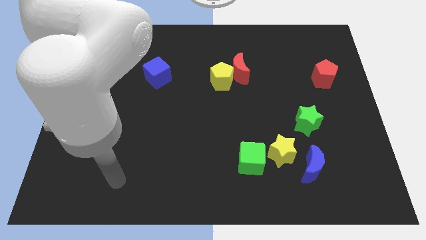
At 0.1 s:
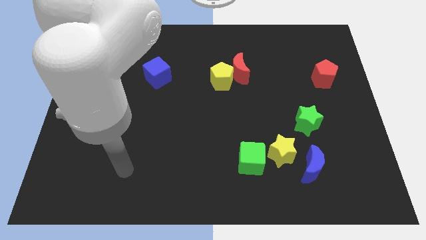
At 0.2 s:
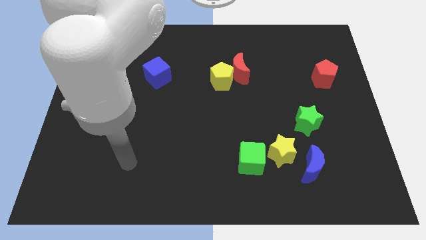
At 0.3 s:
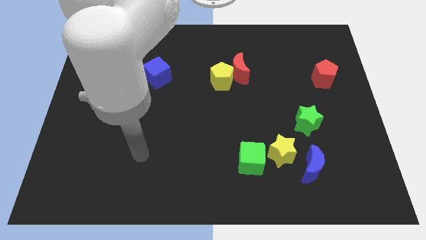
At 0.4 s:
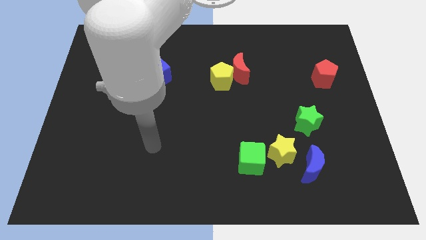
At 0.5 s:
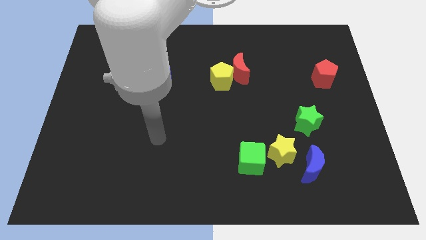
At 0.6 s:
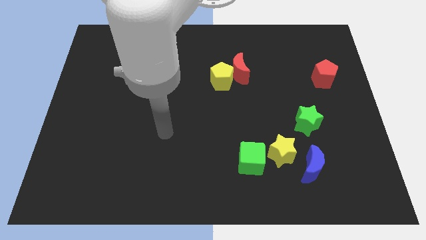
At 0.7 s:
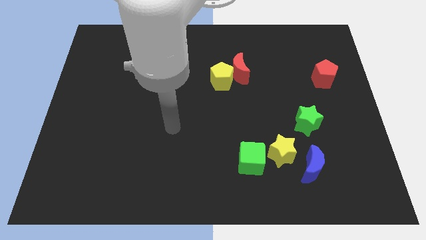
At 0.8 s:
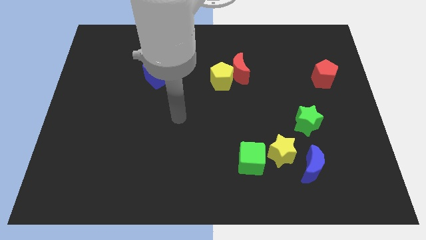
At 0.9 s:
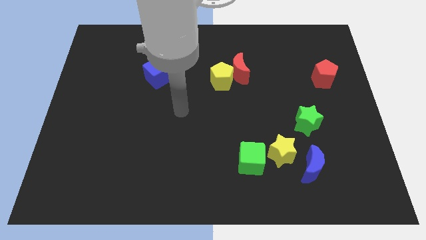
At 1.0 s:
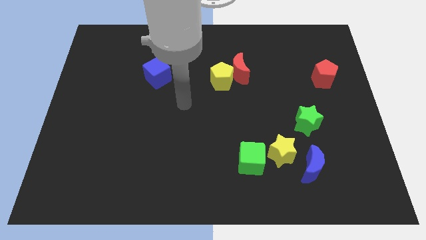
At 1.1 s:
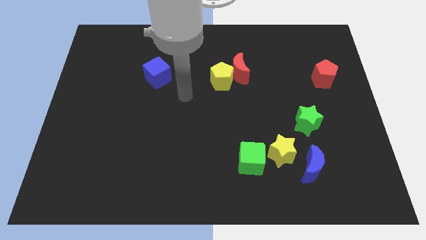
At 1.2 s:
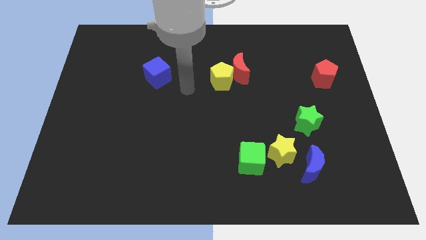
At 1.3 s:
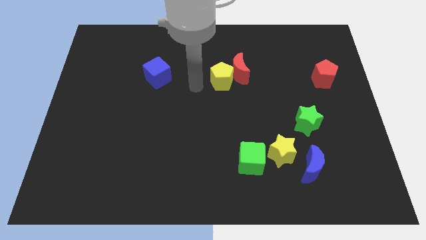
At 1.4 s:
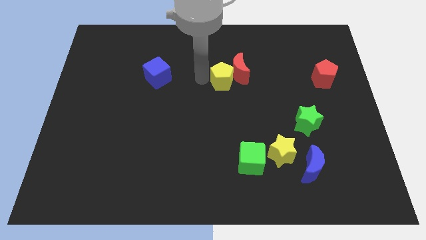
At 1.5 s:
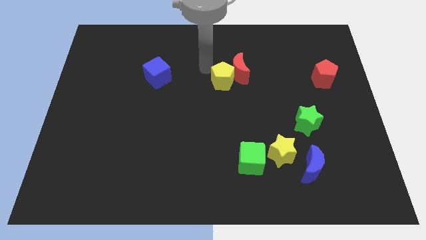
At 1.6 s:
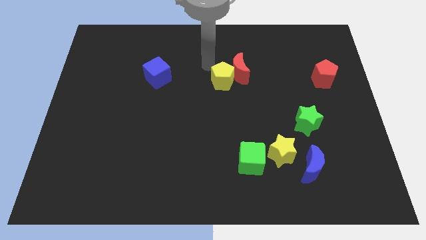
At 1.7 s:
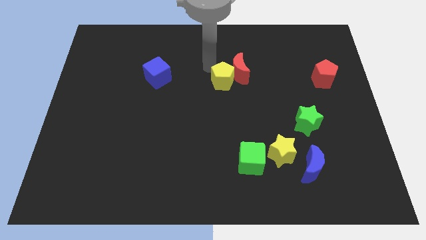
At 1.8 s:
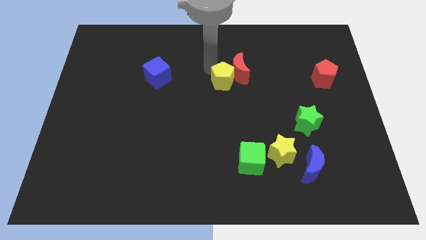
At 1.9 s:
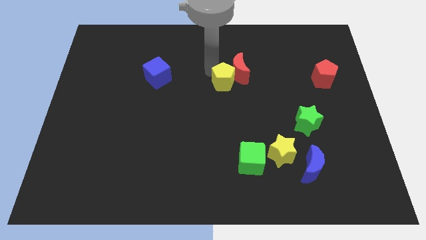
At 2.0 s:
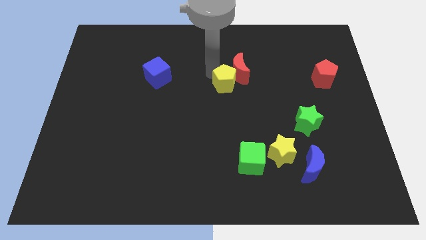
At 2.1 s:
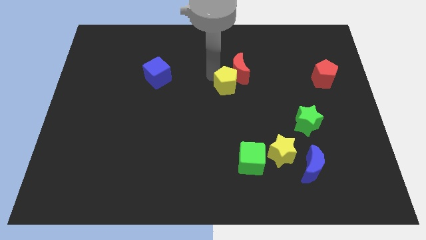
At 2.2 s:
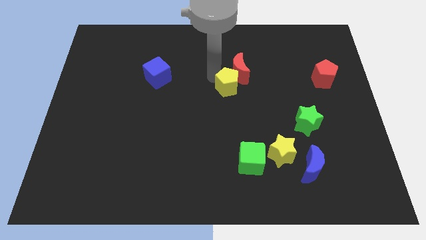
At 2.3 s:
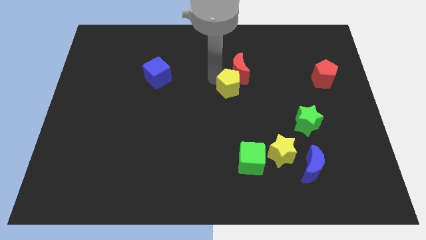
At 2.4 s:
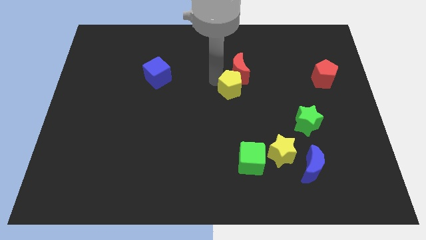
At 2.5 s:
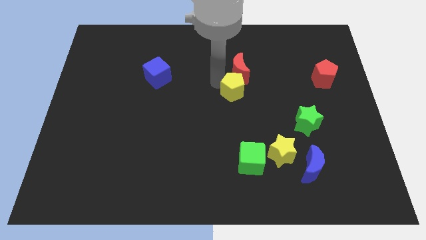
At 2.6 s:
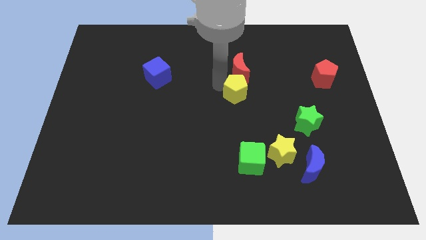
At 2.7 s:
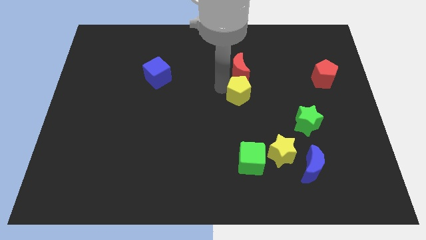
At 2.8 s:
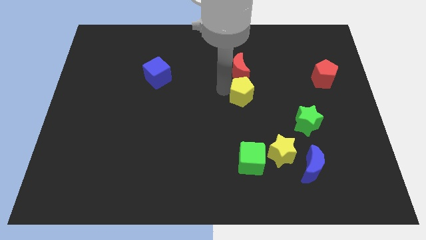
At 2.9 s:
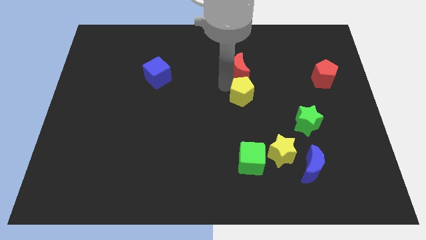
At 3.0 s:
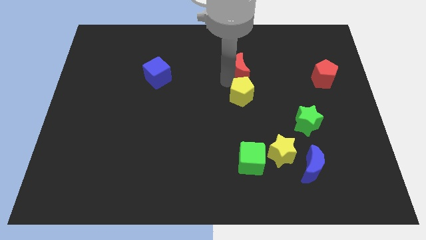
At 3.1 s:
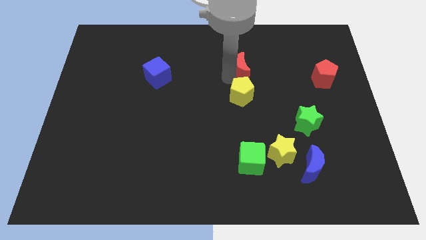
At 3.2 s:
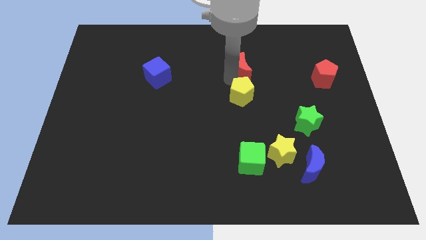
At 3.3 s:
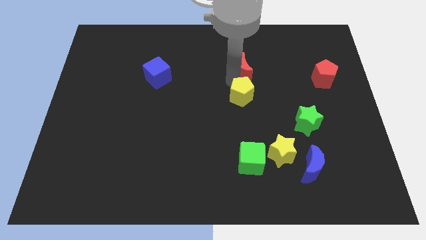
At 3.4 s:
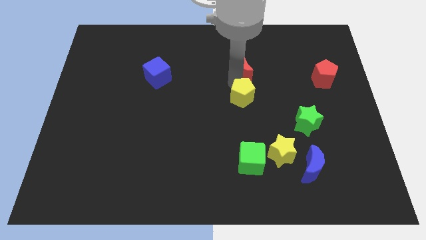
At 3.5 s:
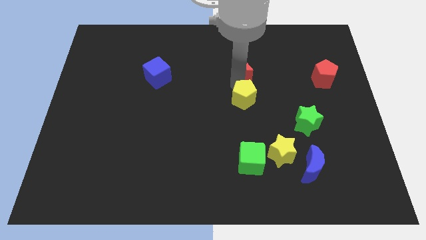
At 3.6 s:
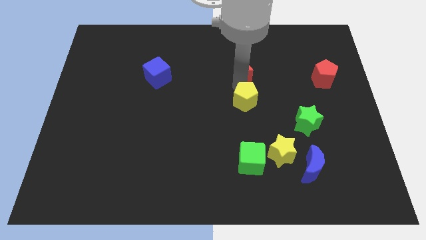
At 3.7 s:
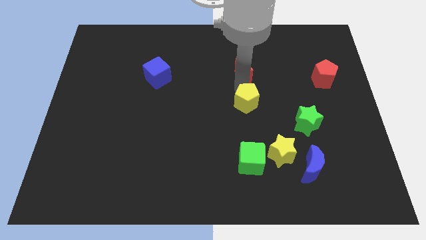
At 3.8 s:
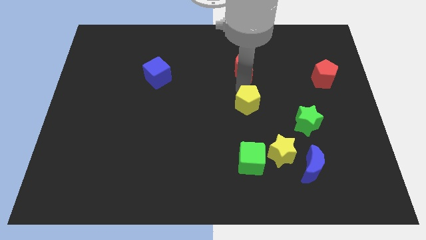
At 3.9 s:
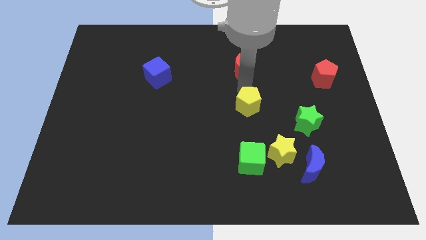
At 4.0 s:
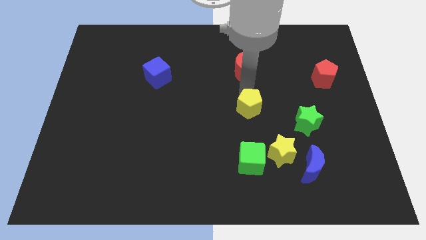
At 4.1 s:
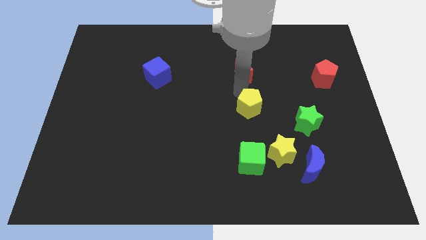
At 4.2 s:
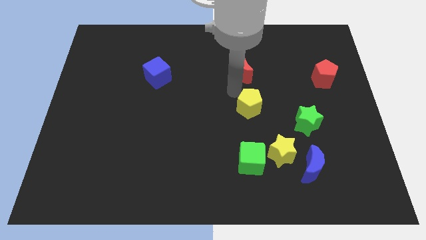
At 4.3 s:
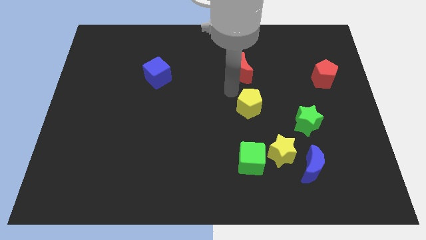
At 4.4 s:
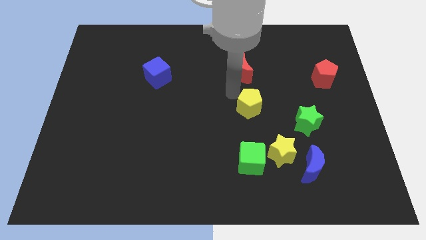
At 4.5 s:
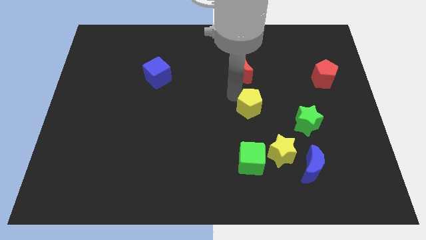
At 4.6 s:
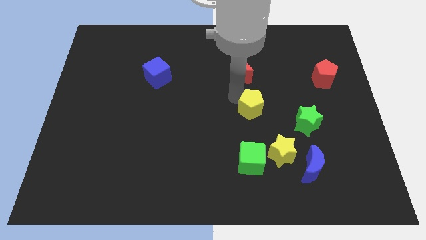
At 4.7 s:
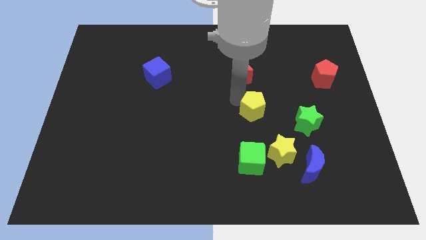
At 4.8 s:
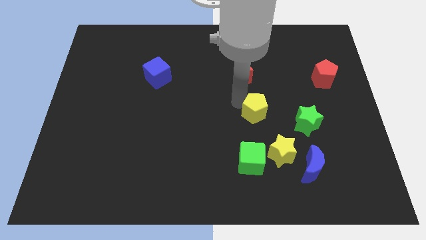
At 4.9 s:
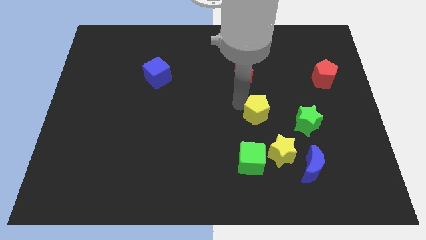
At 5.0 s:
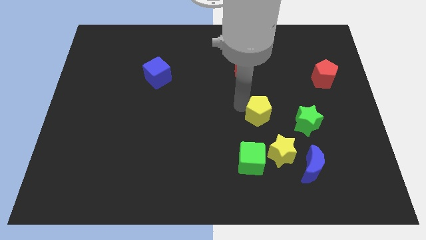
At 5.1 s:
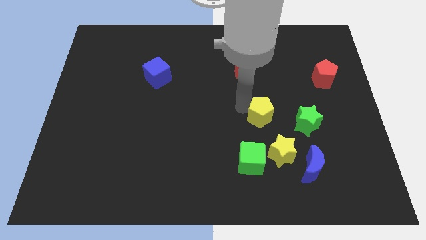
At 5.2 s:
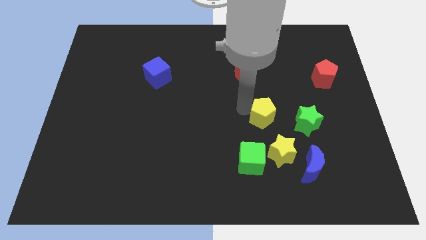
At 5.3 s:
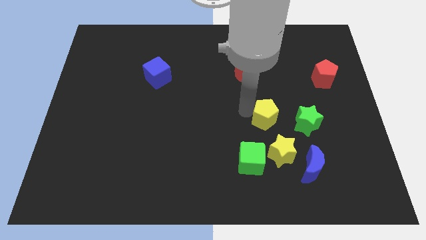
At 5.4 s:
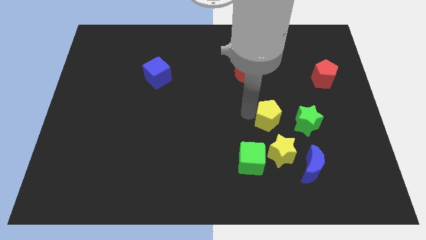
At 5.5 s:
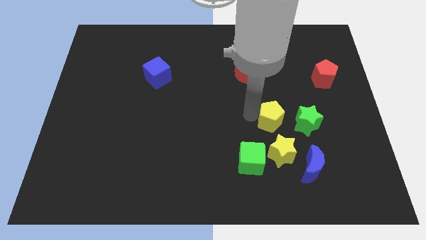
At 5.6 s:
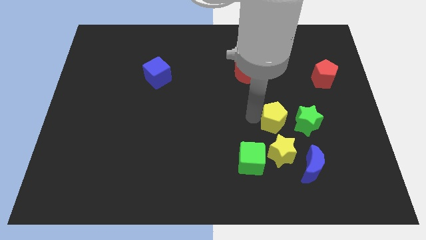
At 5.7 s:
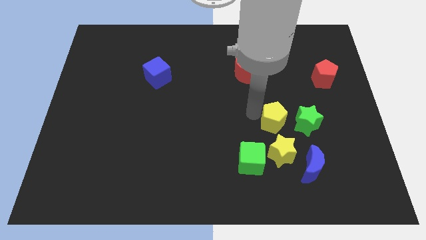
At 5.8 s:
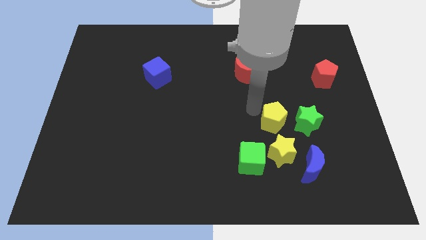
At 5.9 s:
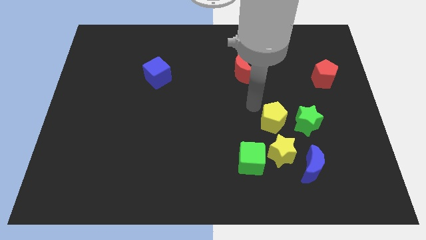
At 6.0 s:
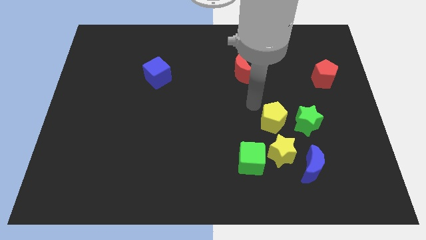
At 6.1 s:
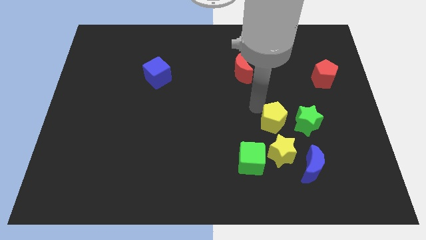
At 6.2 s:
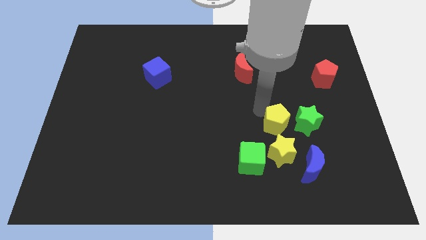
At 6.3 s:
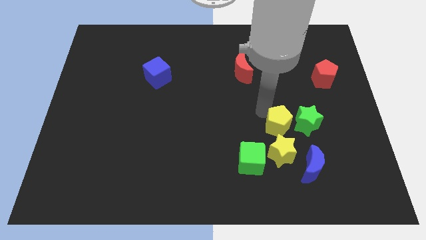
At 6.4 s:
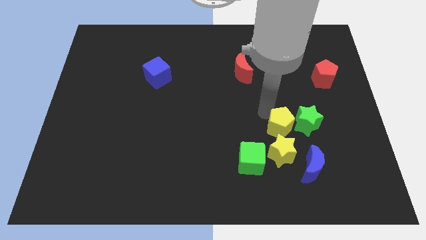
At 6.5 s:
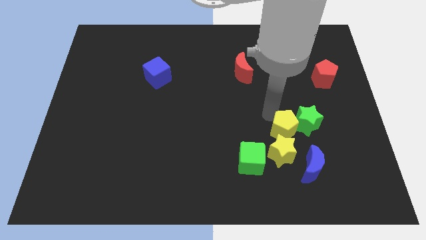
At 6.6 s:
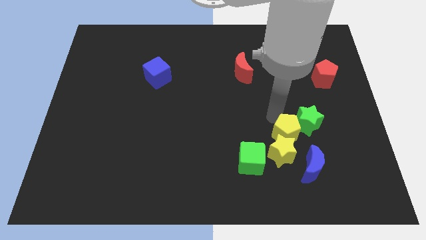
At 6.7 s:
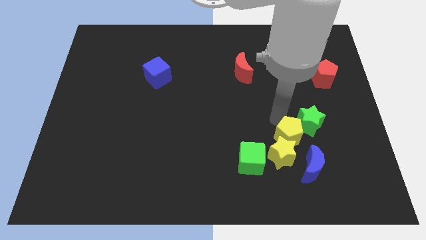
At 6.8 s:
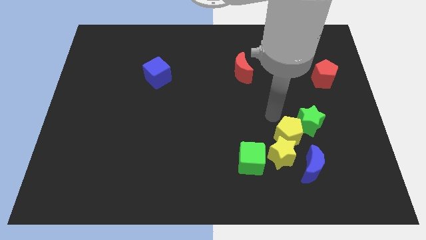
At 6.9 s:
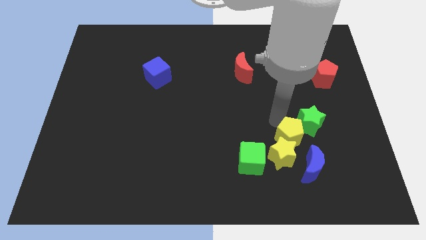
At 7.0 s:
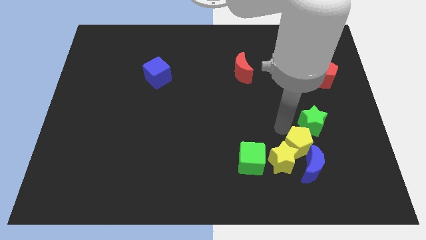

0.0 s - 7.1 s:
push the yellow pentagon to the blue moon
